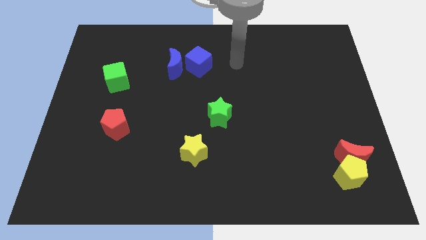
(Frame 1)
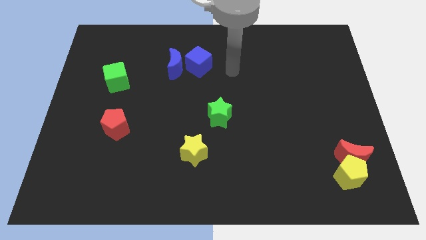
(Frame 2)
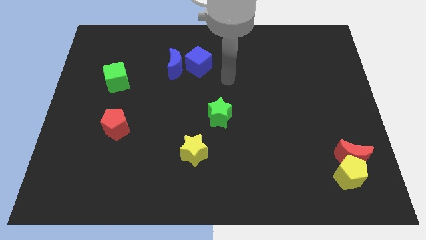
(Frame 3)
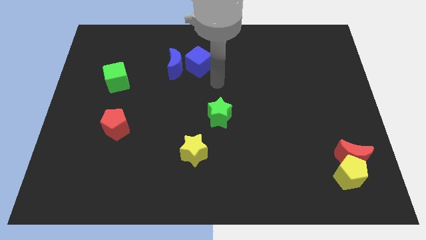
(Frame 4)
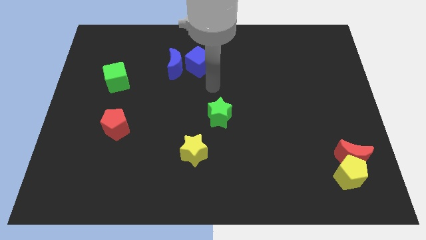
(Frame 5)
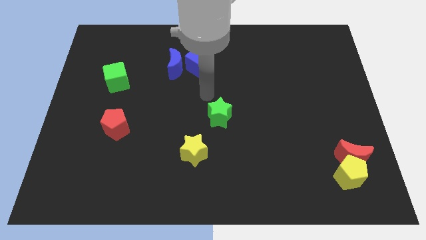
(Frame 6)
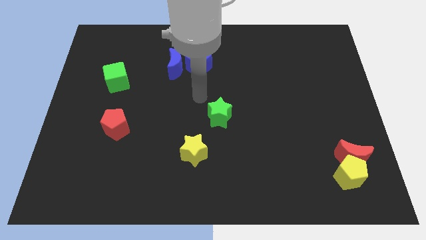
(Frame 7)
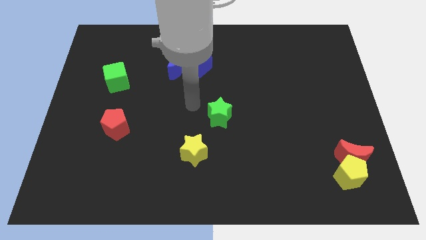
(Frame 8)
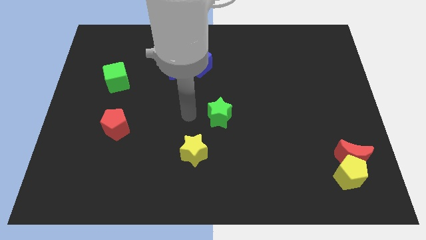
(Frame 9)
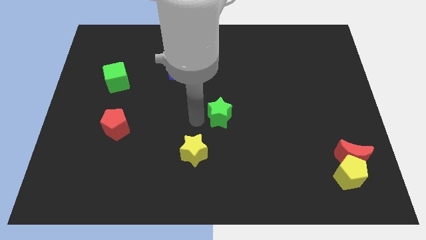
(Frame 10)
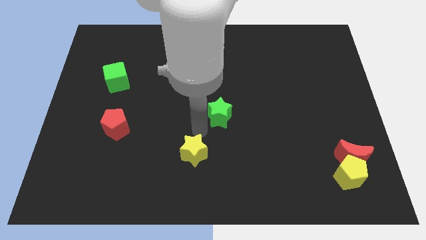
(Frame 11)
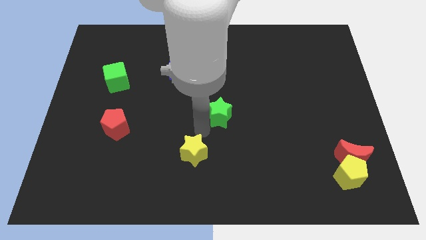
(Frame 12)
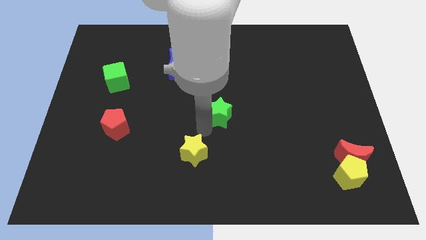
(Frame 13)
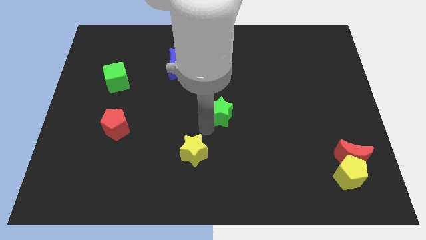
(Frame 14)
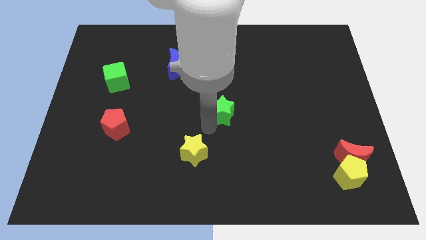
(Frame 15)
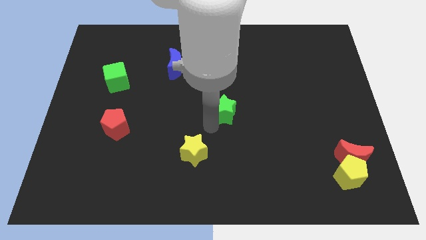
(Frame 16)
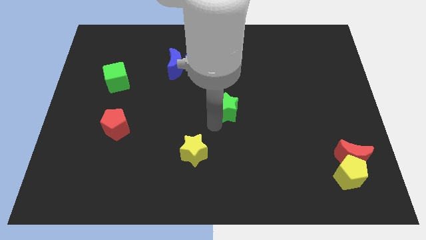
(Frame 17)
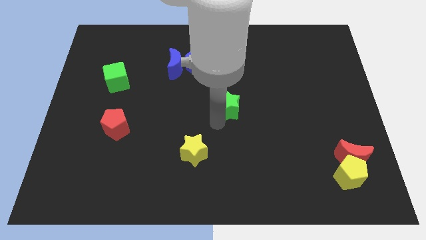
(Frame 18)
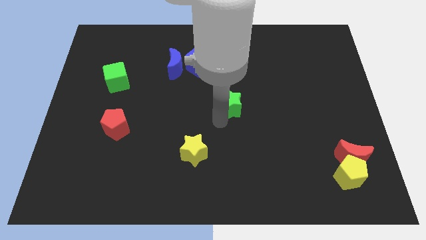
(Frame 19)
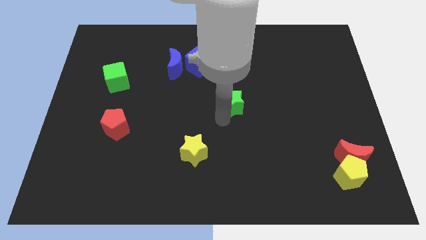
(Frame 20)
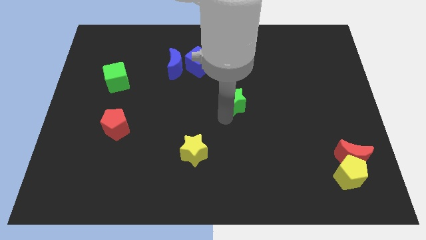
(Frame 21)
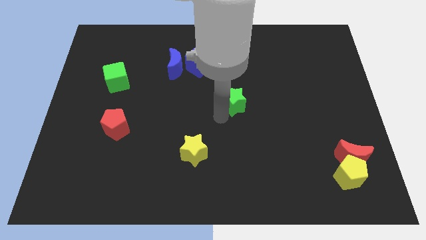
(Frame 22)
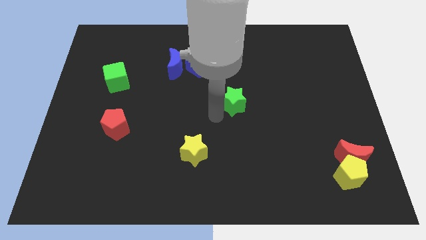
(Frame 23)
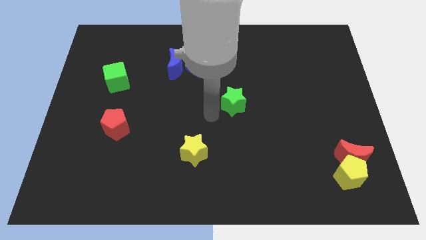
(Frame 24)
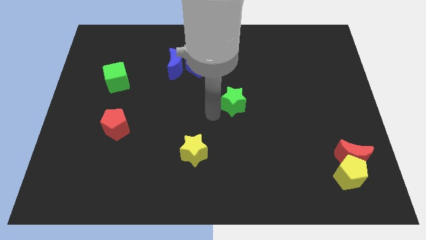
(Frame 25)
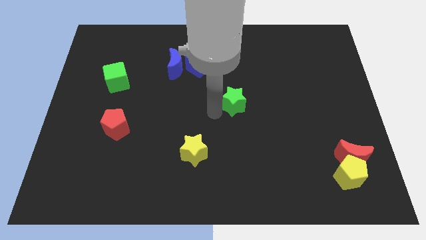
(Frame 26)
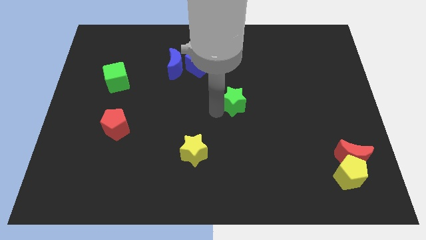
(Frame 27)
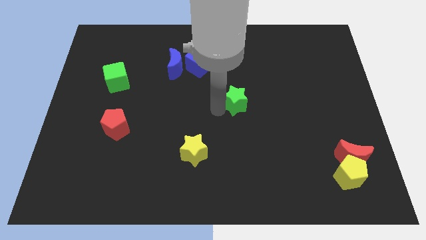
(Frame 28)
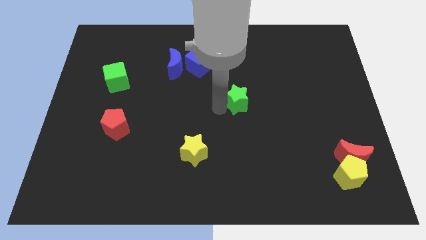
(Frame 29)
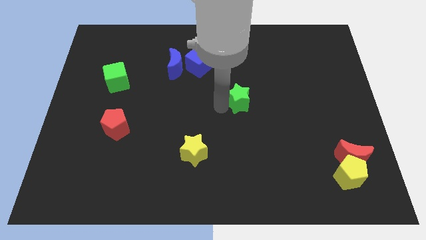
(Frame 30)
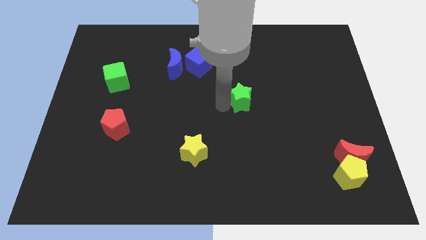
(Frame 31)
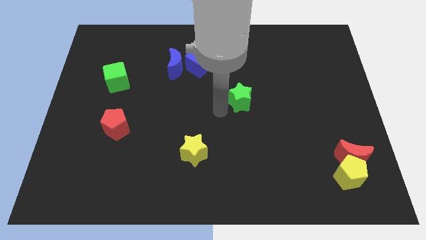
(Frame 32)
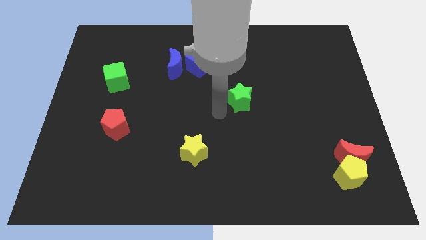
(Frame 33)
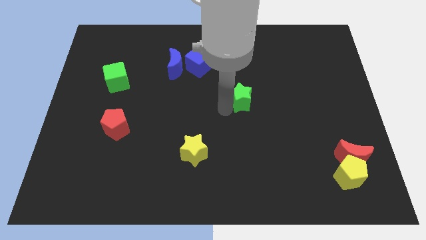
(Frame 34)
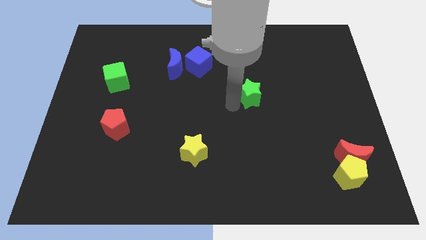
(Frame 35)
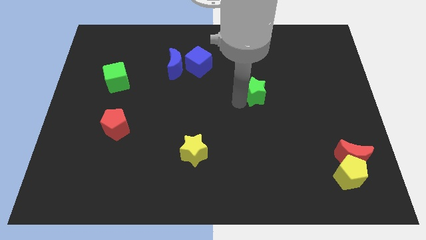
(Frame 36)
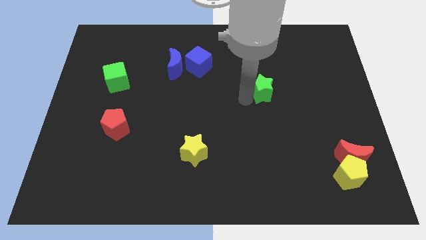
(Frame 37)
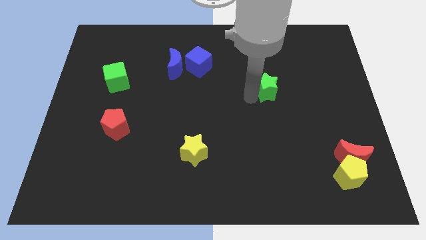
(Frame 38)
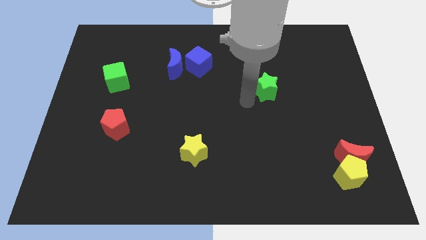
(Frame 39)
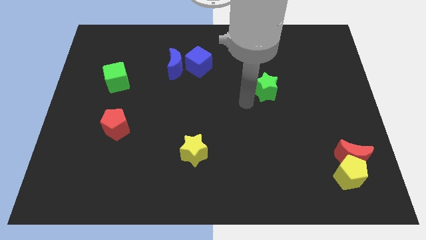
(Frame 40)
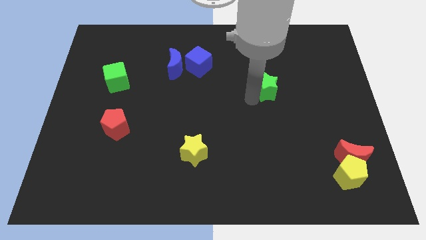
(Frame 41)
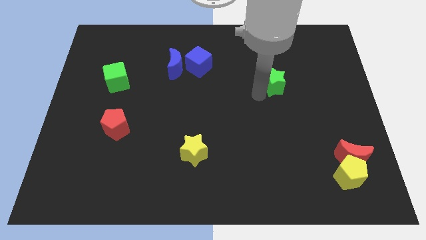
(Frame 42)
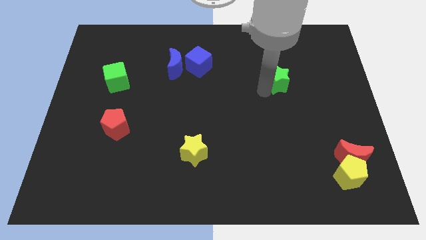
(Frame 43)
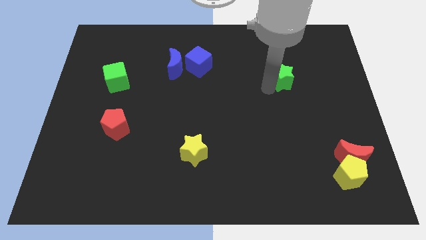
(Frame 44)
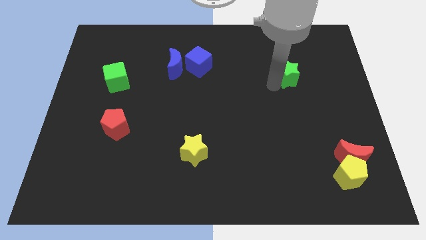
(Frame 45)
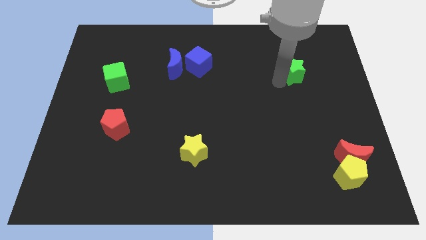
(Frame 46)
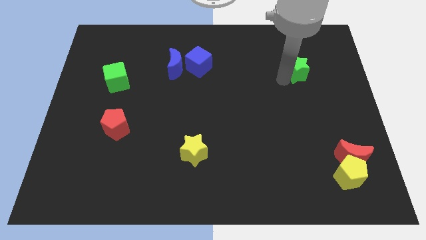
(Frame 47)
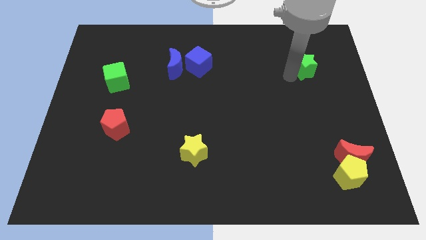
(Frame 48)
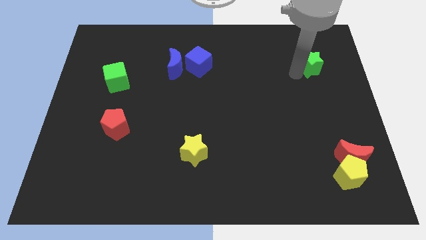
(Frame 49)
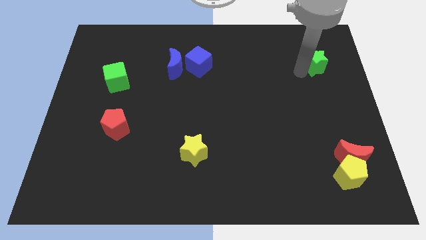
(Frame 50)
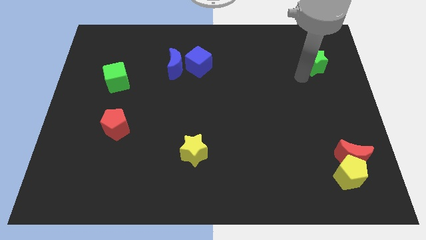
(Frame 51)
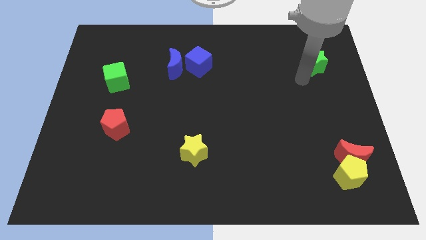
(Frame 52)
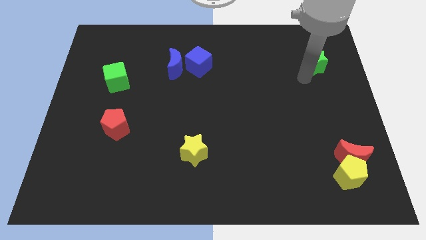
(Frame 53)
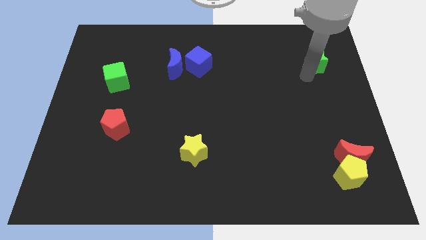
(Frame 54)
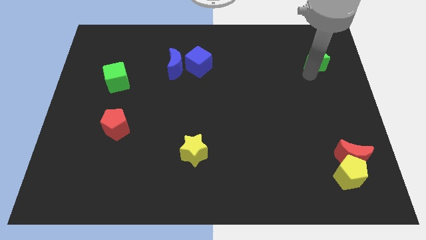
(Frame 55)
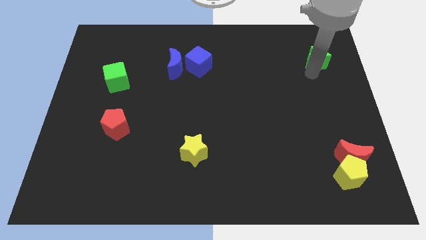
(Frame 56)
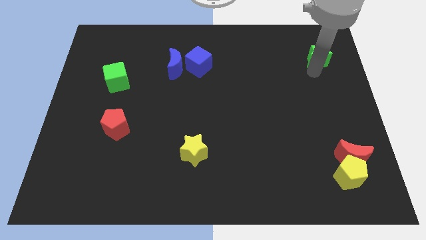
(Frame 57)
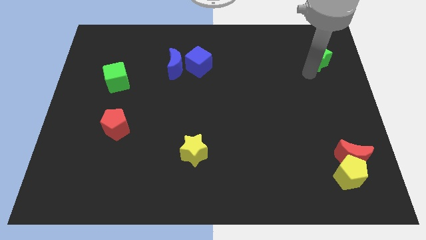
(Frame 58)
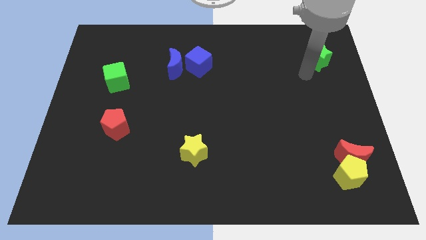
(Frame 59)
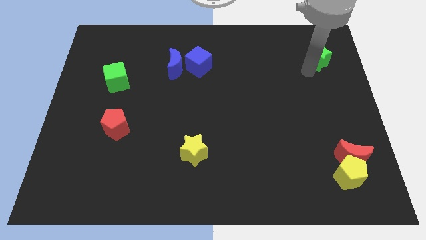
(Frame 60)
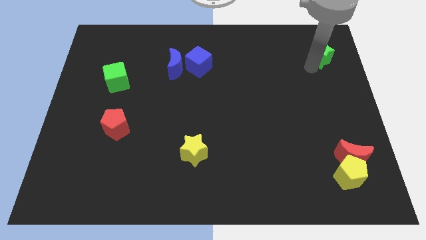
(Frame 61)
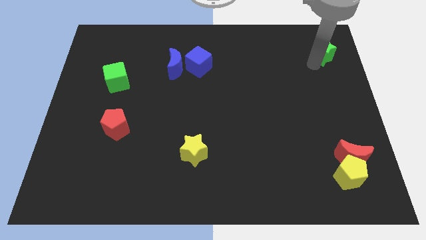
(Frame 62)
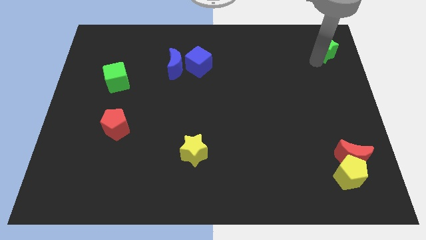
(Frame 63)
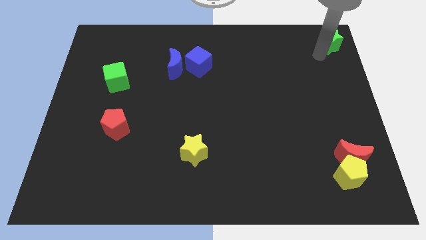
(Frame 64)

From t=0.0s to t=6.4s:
slide the green star to the top right
